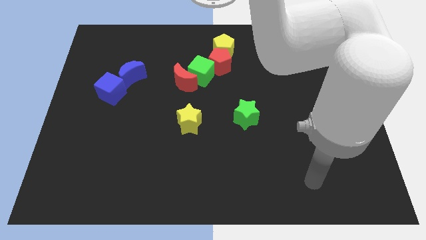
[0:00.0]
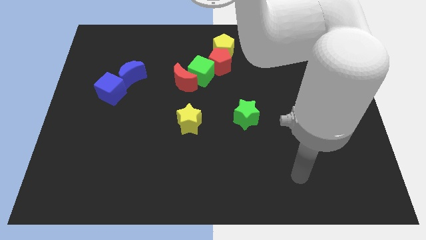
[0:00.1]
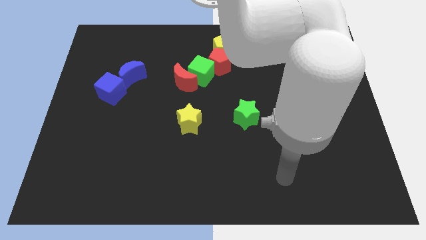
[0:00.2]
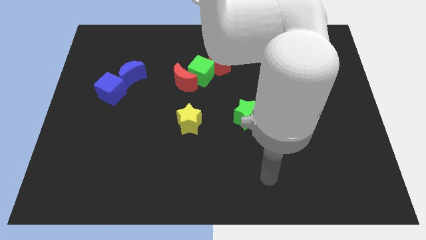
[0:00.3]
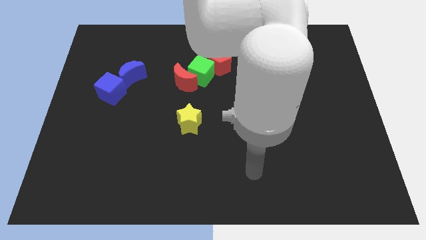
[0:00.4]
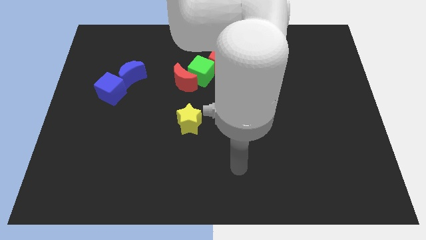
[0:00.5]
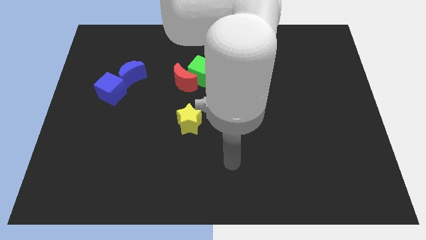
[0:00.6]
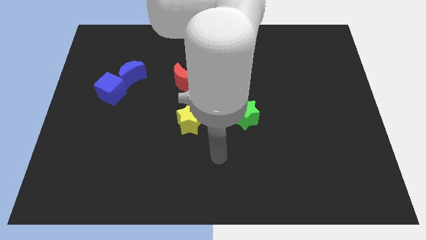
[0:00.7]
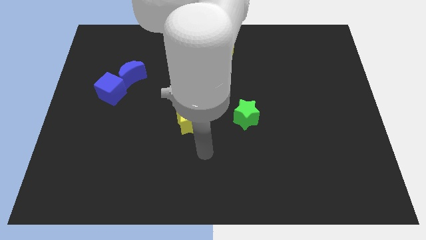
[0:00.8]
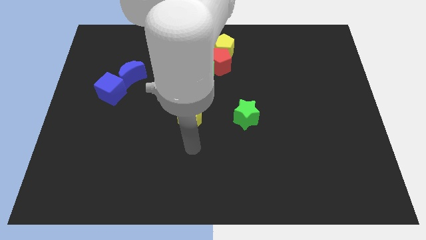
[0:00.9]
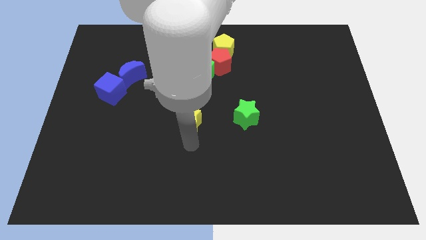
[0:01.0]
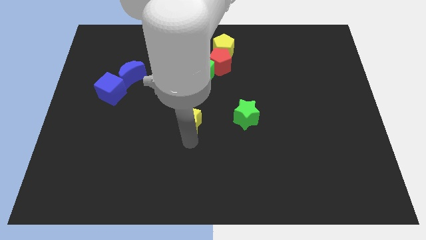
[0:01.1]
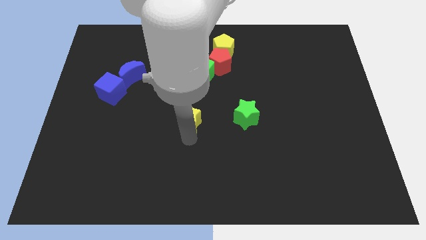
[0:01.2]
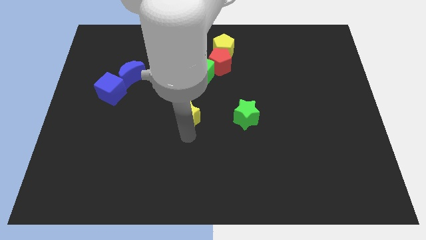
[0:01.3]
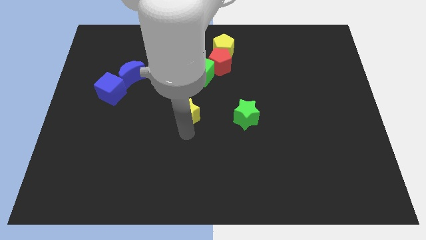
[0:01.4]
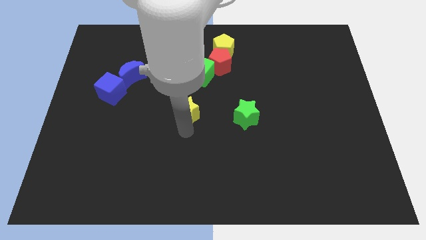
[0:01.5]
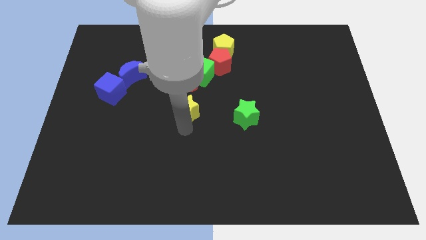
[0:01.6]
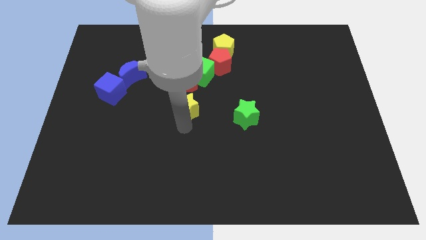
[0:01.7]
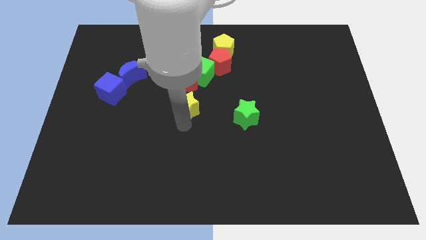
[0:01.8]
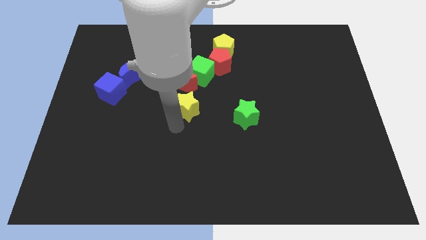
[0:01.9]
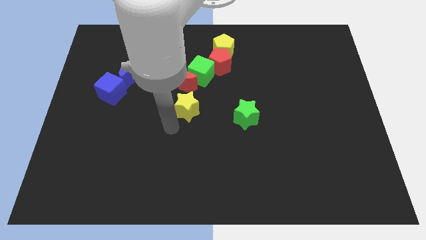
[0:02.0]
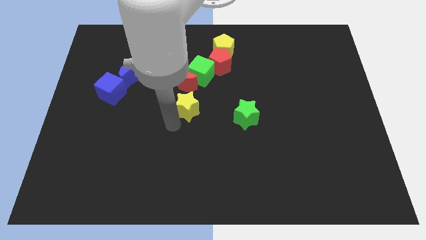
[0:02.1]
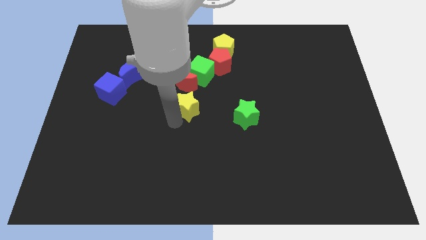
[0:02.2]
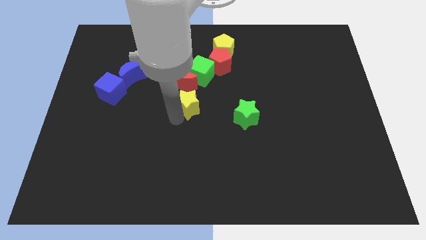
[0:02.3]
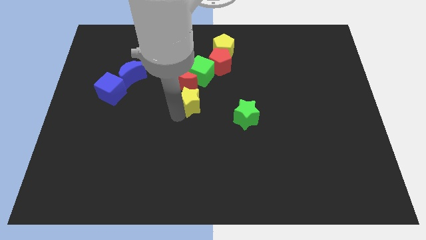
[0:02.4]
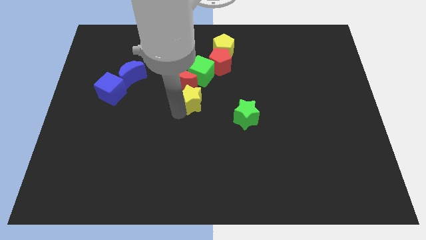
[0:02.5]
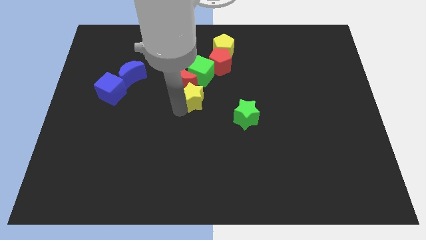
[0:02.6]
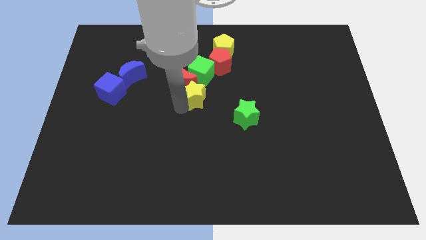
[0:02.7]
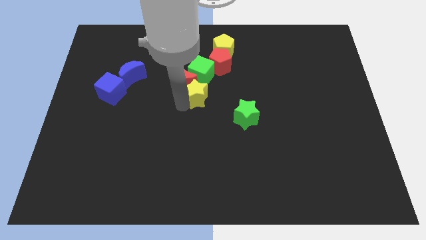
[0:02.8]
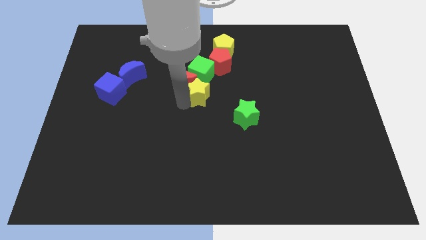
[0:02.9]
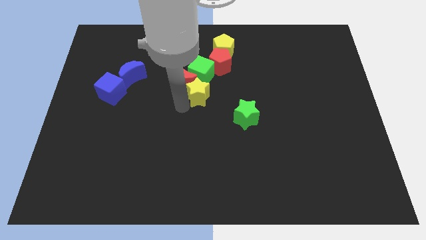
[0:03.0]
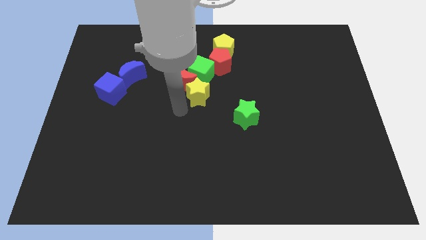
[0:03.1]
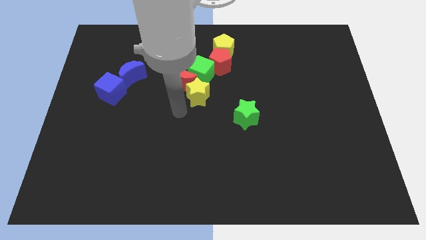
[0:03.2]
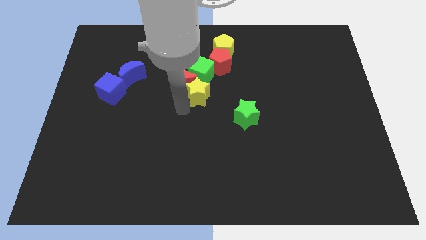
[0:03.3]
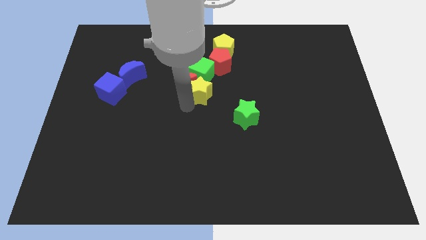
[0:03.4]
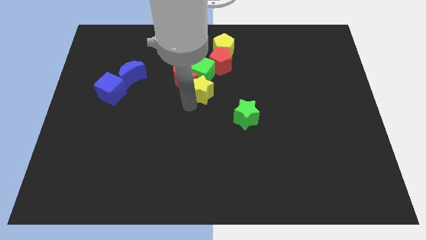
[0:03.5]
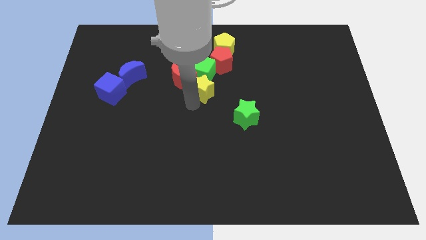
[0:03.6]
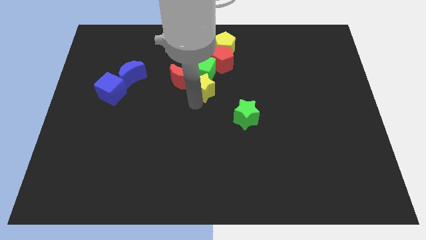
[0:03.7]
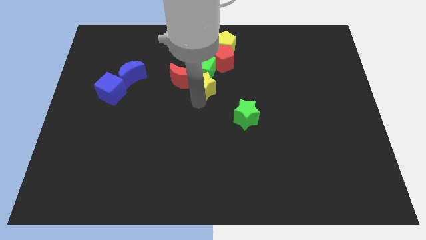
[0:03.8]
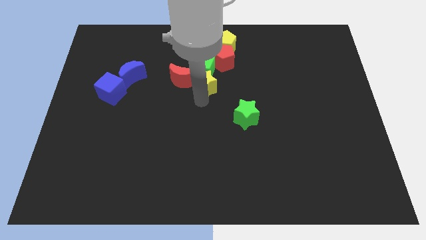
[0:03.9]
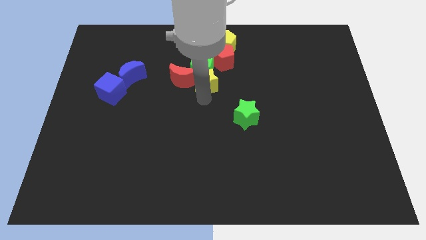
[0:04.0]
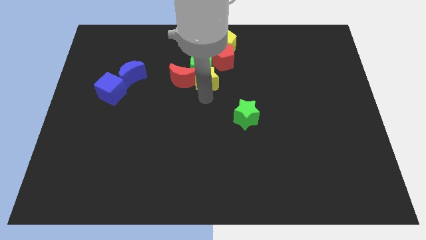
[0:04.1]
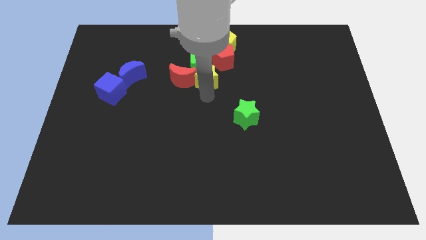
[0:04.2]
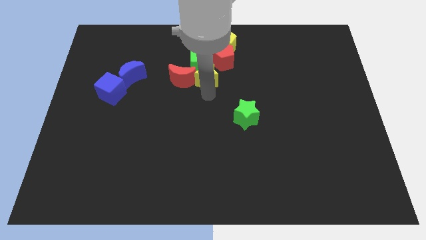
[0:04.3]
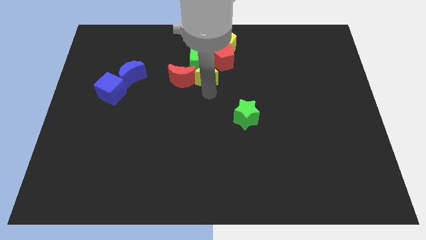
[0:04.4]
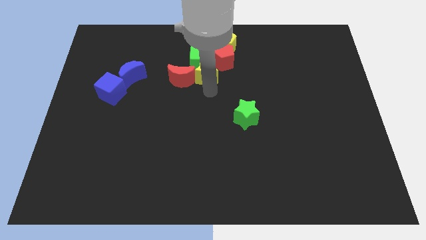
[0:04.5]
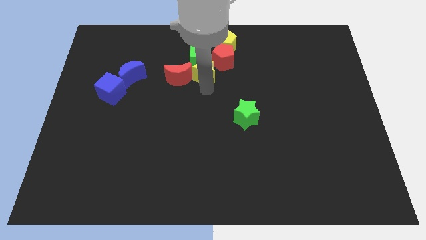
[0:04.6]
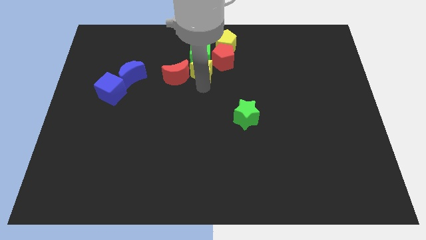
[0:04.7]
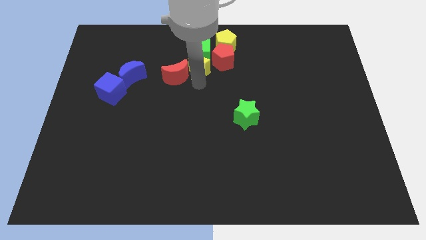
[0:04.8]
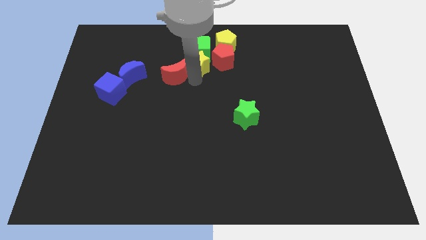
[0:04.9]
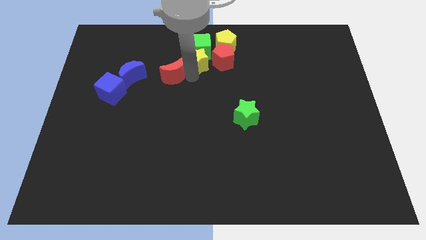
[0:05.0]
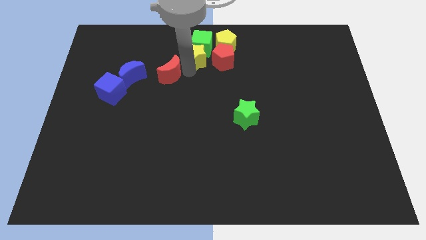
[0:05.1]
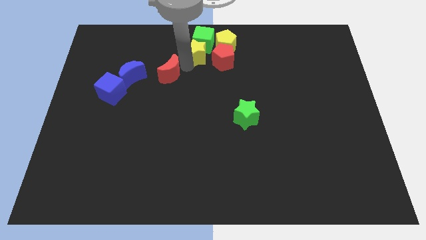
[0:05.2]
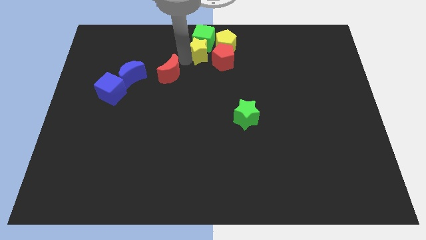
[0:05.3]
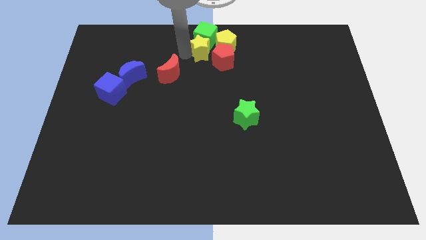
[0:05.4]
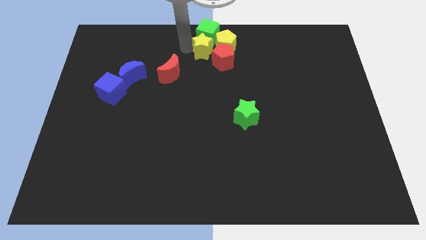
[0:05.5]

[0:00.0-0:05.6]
put the yellow star to the yellow pentagon

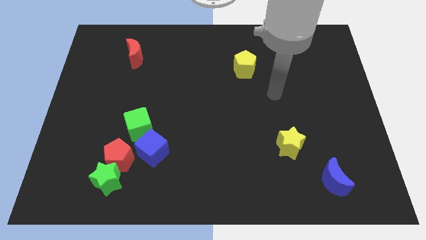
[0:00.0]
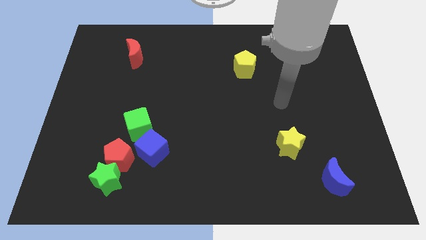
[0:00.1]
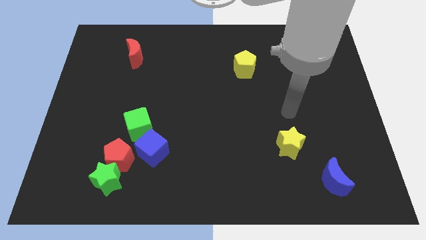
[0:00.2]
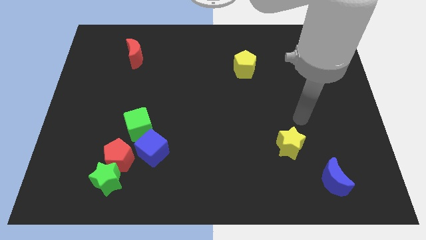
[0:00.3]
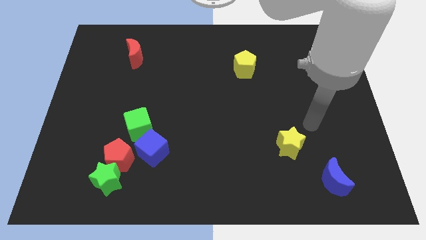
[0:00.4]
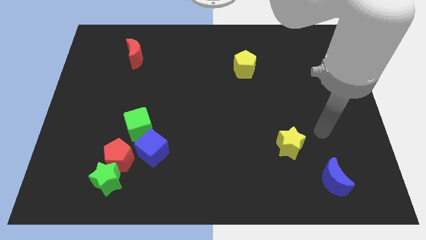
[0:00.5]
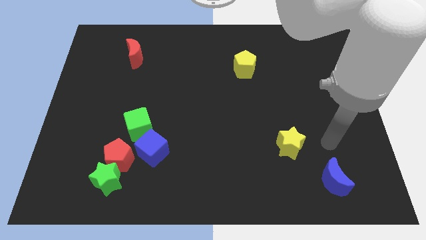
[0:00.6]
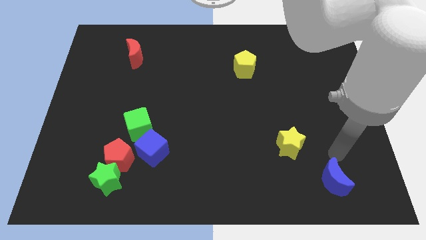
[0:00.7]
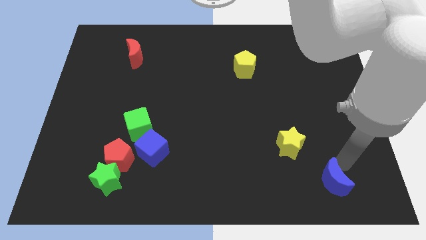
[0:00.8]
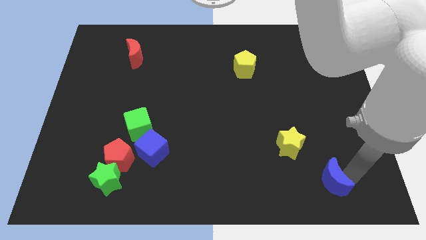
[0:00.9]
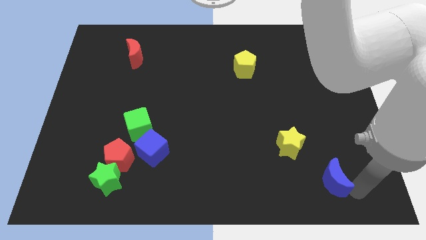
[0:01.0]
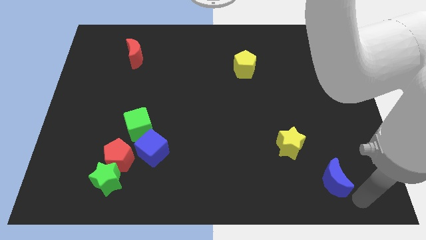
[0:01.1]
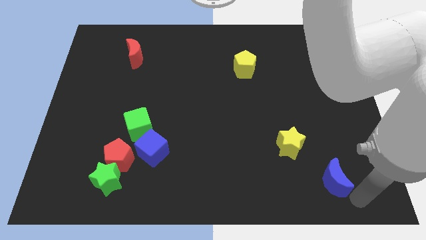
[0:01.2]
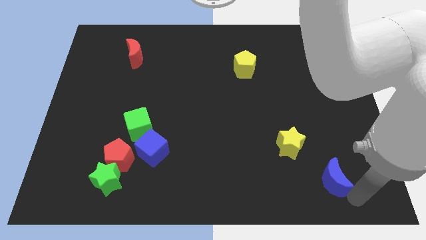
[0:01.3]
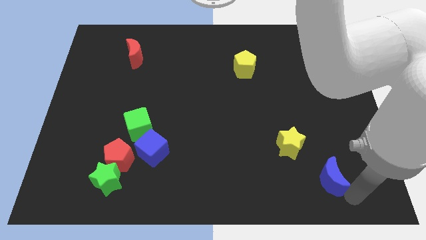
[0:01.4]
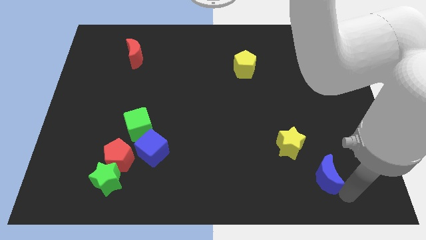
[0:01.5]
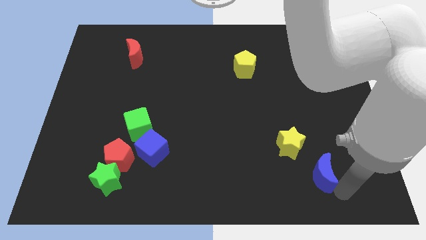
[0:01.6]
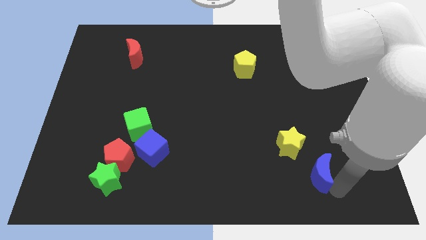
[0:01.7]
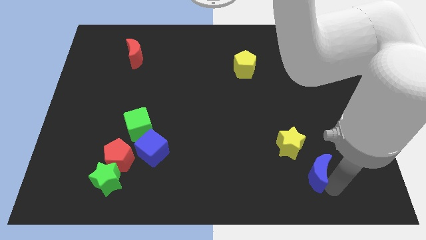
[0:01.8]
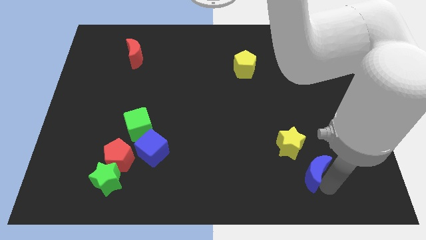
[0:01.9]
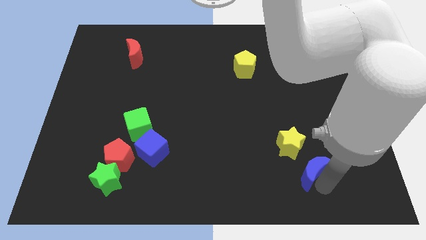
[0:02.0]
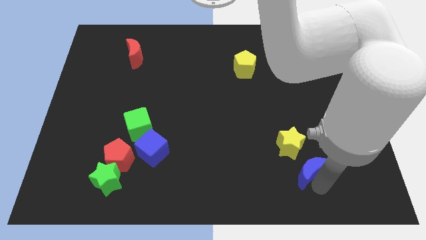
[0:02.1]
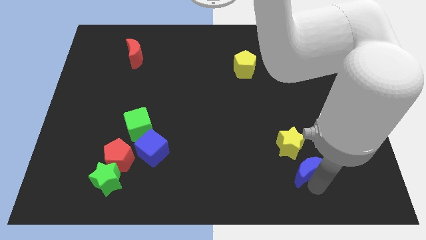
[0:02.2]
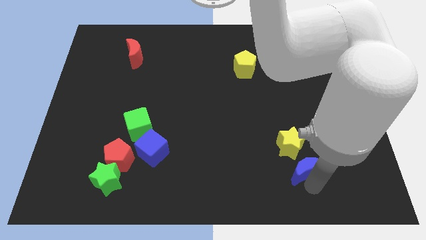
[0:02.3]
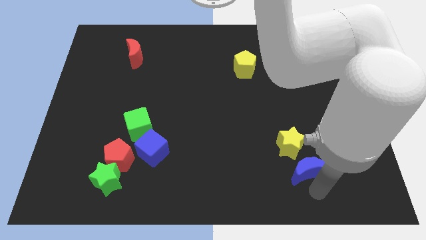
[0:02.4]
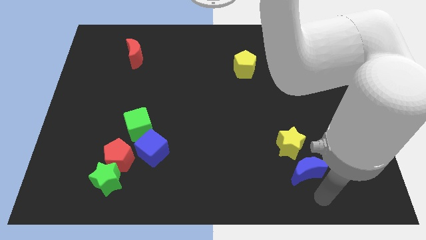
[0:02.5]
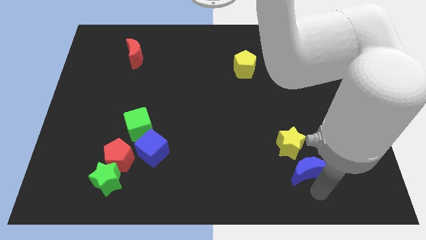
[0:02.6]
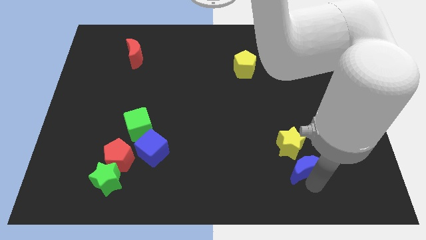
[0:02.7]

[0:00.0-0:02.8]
push the blue moon close to the yellow star
